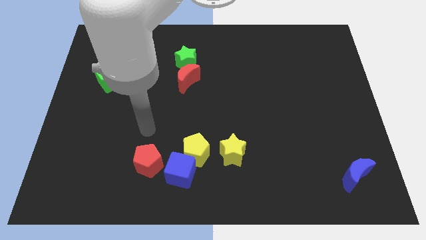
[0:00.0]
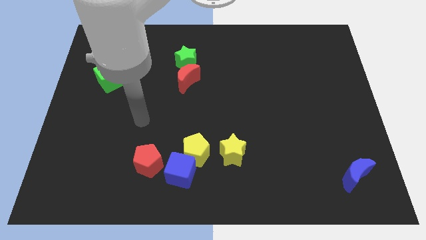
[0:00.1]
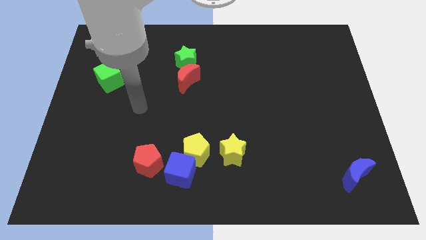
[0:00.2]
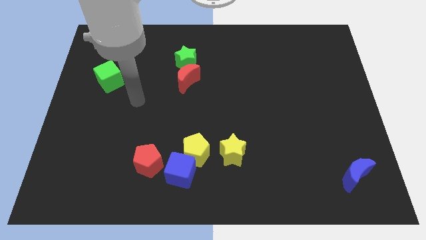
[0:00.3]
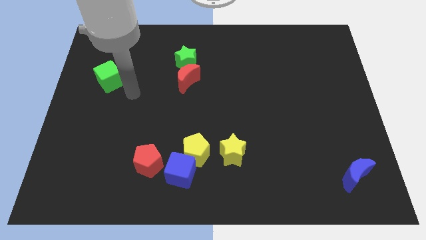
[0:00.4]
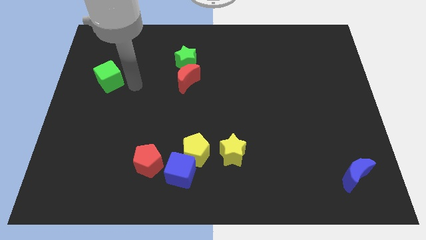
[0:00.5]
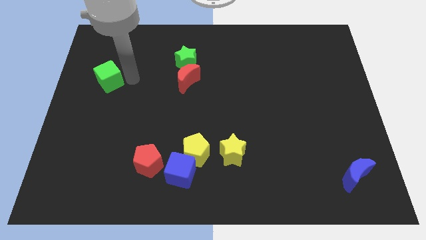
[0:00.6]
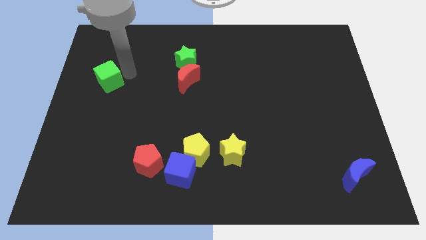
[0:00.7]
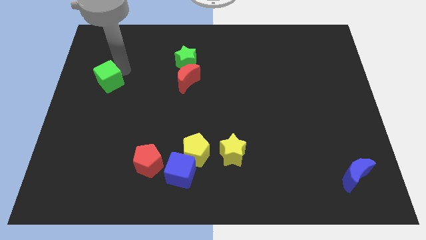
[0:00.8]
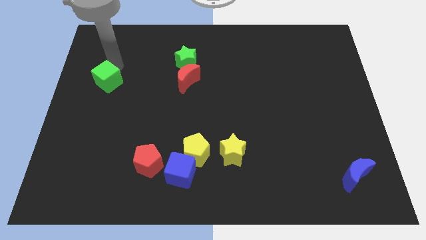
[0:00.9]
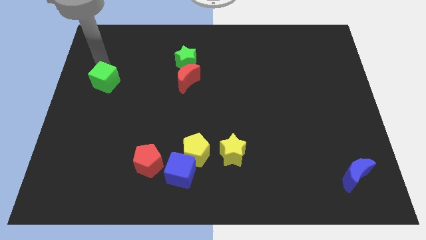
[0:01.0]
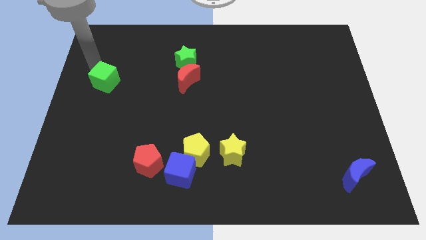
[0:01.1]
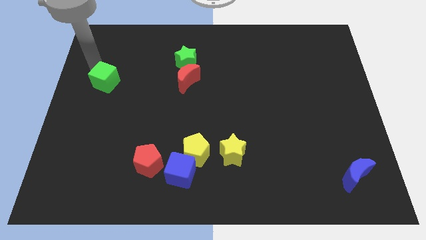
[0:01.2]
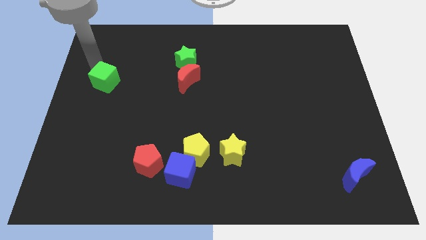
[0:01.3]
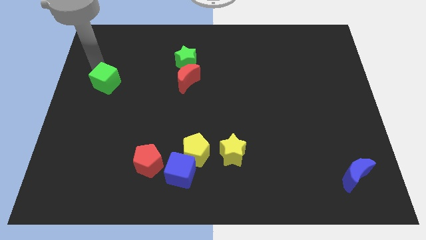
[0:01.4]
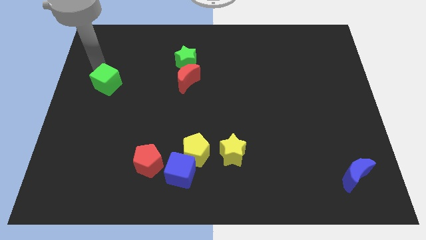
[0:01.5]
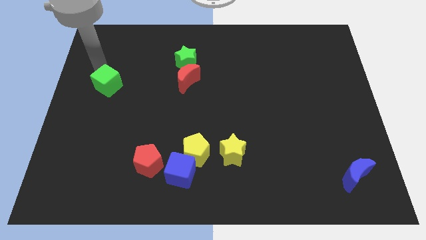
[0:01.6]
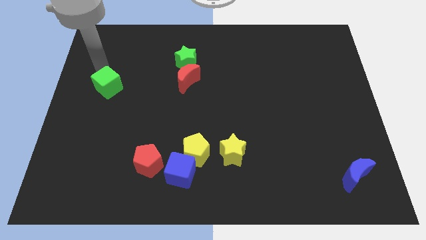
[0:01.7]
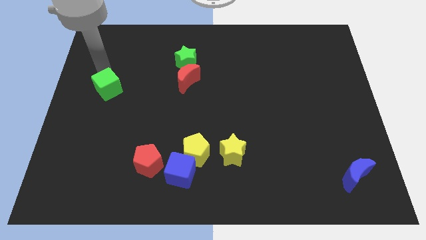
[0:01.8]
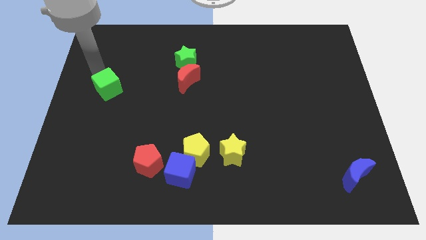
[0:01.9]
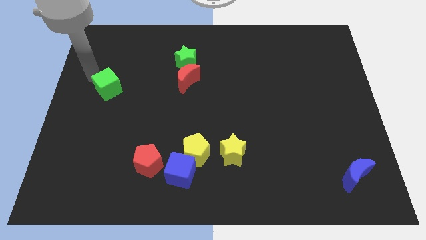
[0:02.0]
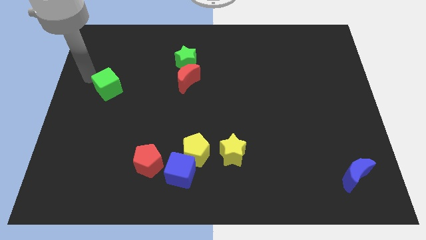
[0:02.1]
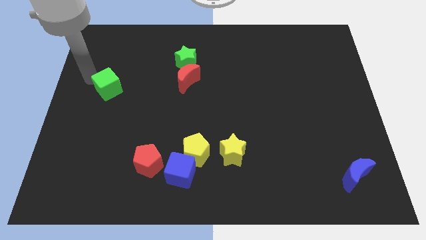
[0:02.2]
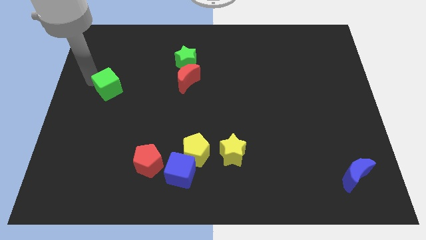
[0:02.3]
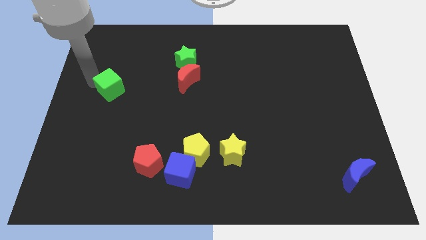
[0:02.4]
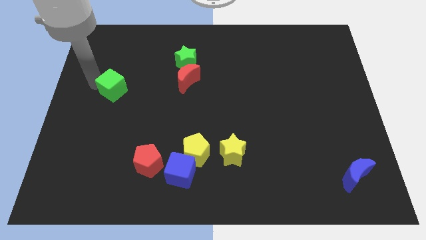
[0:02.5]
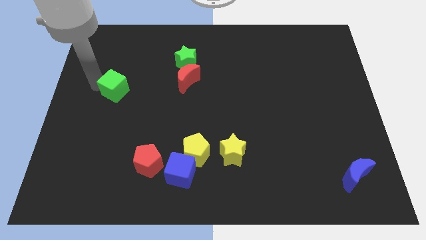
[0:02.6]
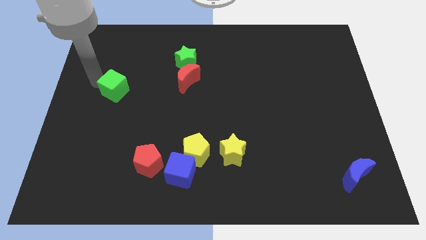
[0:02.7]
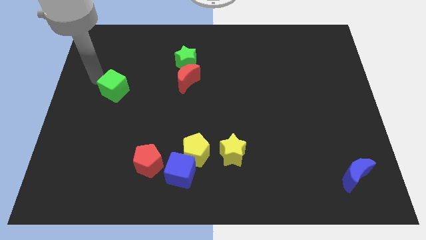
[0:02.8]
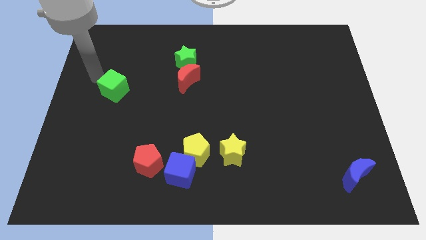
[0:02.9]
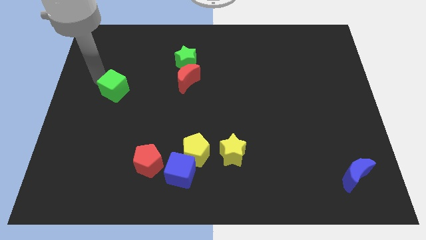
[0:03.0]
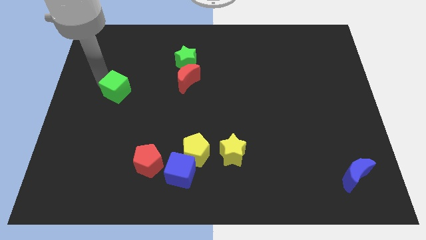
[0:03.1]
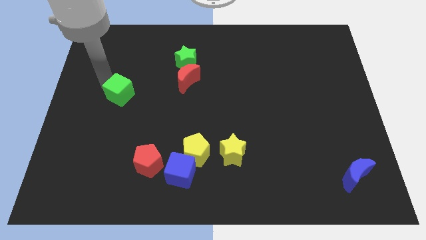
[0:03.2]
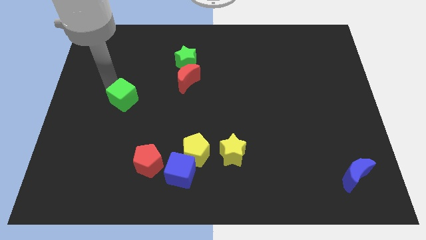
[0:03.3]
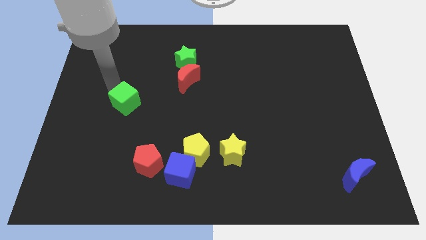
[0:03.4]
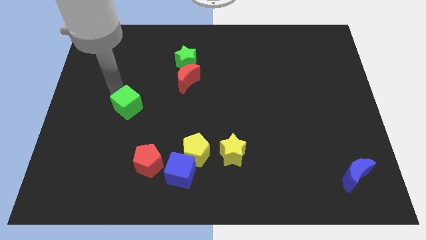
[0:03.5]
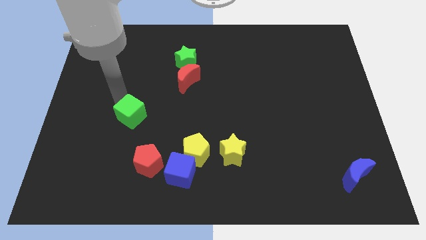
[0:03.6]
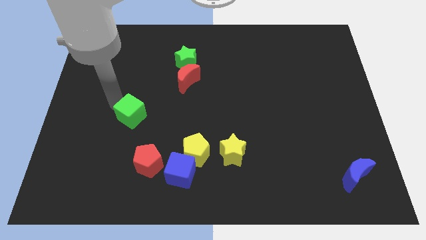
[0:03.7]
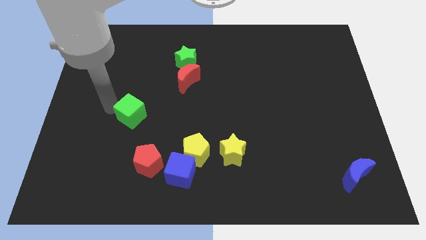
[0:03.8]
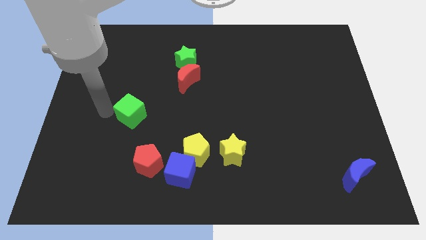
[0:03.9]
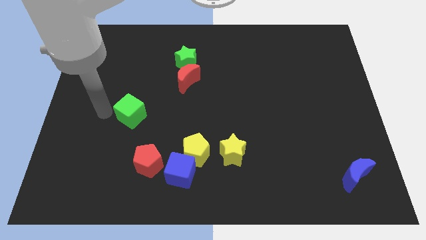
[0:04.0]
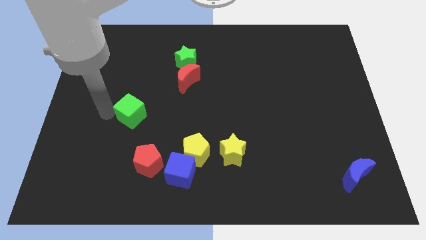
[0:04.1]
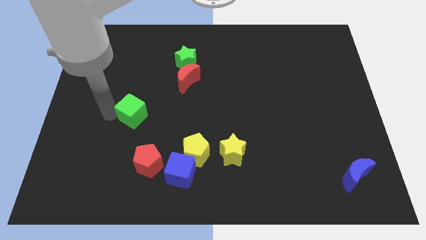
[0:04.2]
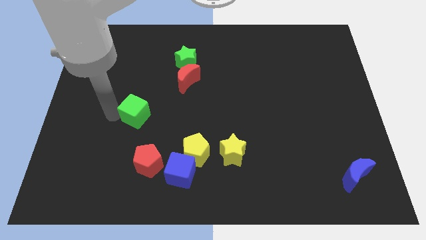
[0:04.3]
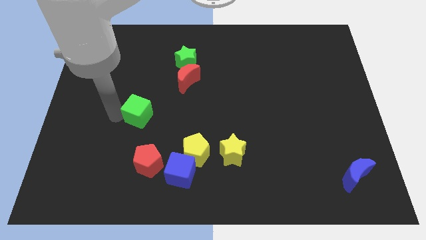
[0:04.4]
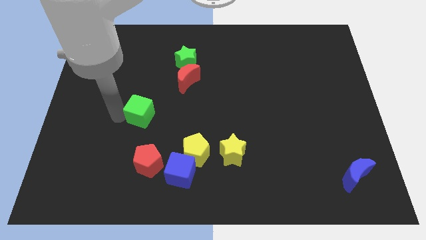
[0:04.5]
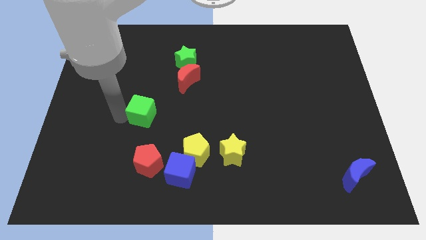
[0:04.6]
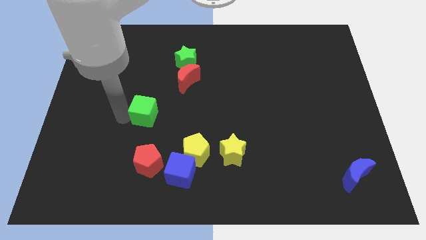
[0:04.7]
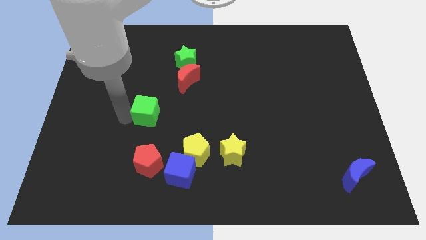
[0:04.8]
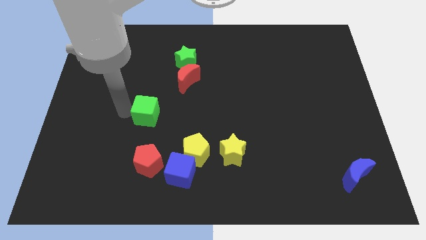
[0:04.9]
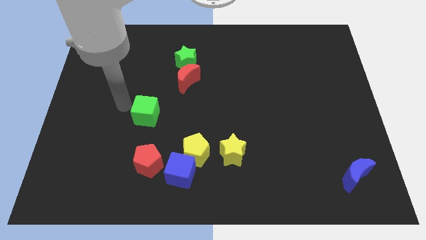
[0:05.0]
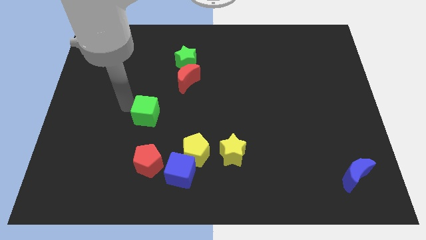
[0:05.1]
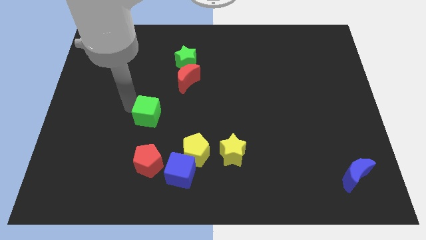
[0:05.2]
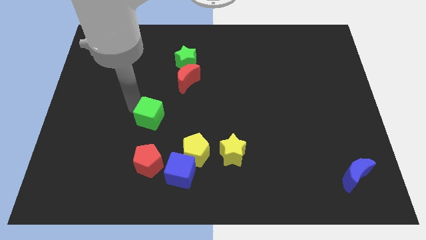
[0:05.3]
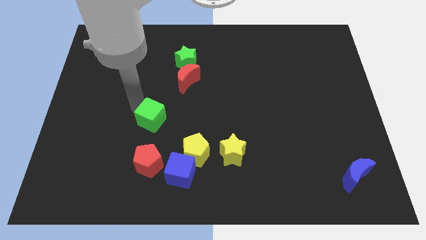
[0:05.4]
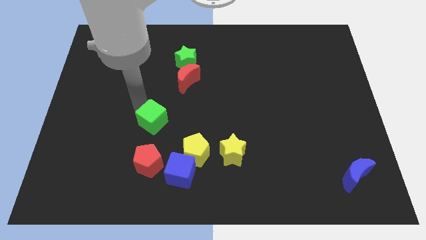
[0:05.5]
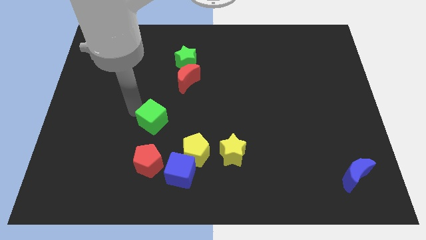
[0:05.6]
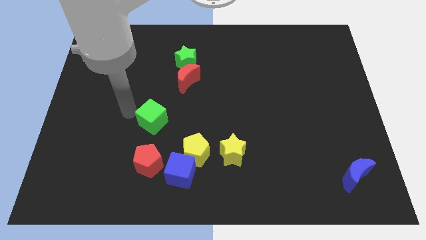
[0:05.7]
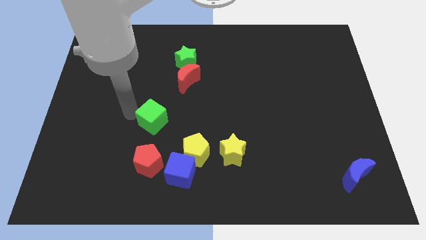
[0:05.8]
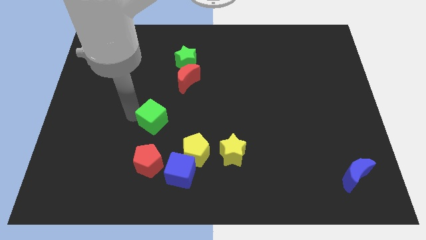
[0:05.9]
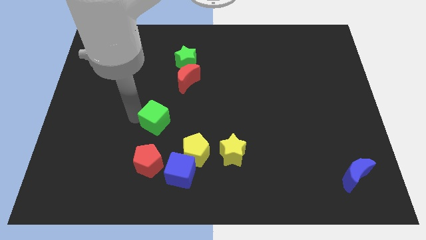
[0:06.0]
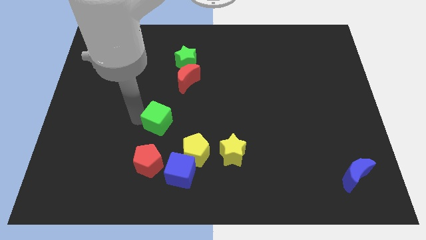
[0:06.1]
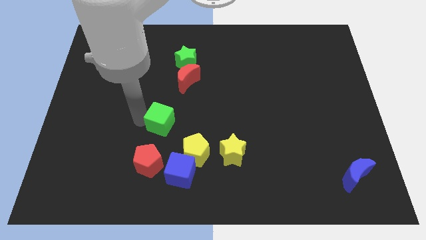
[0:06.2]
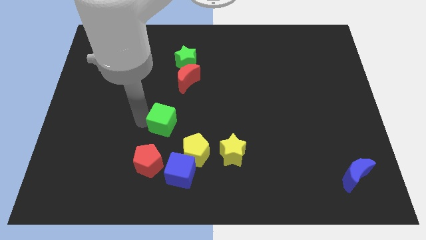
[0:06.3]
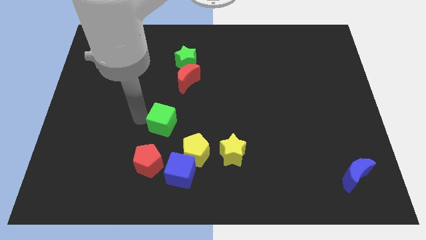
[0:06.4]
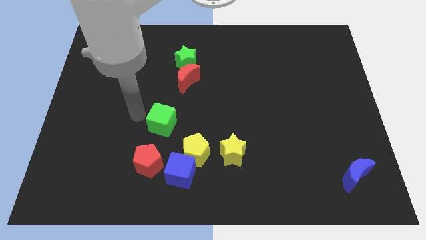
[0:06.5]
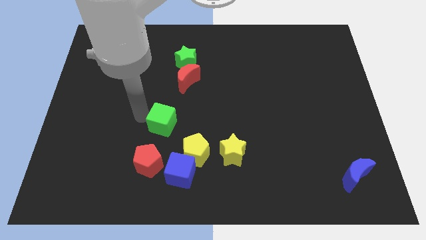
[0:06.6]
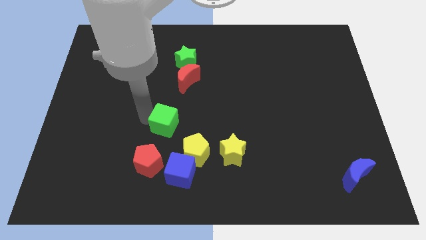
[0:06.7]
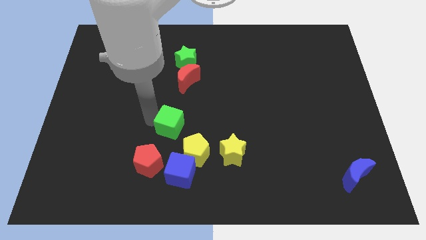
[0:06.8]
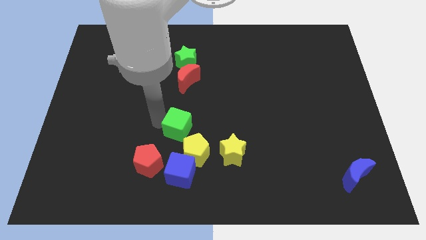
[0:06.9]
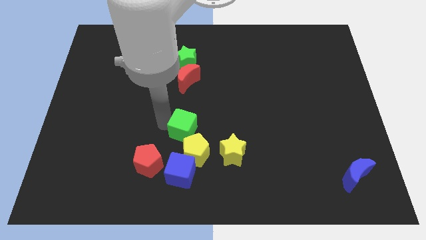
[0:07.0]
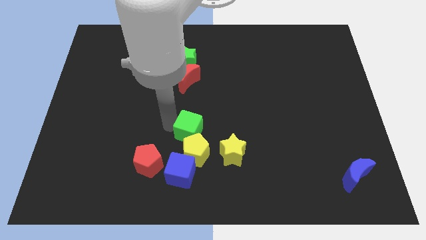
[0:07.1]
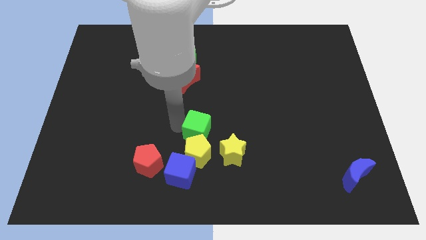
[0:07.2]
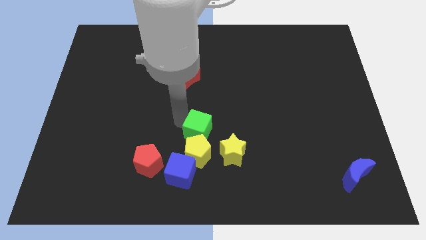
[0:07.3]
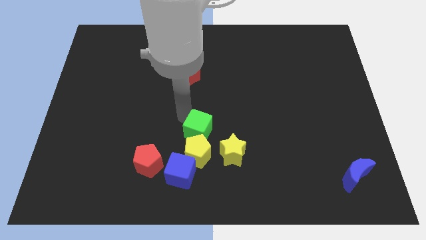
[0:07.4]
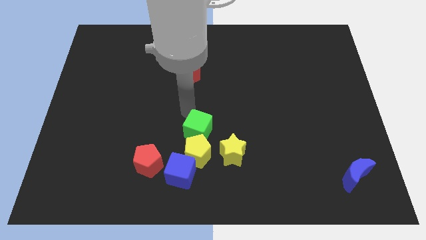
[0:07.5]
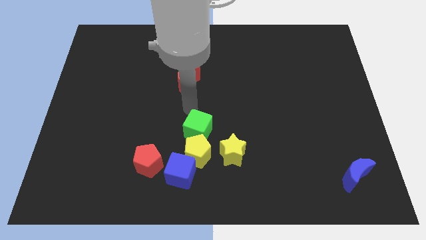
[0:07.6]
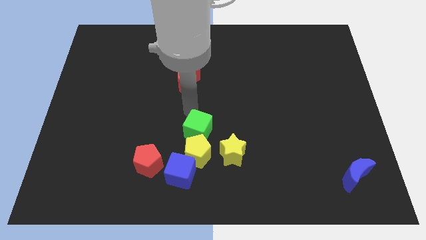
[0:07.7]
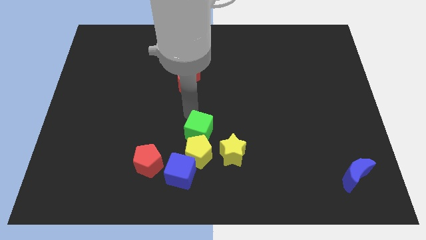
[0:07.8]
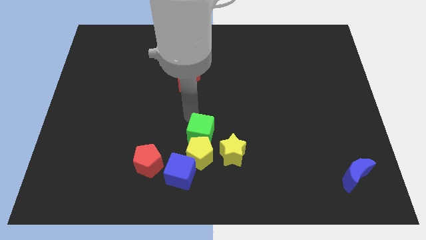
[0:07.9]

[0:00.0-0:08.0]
put the green cube diagonally up and to the right of the blue cube

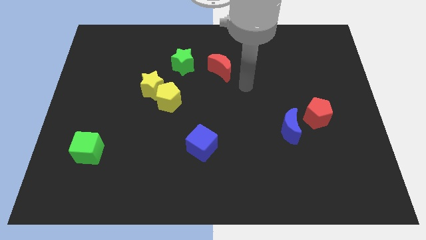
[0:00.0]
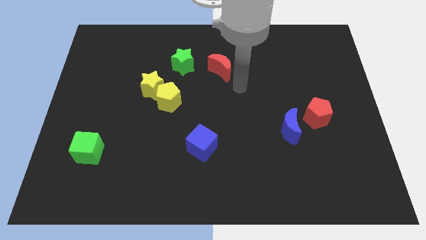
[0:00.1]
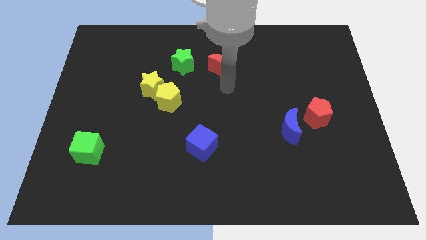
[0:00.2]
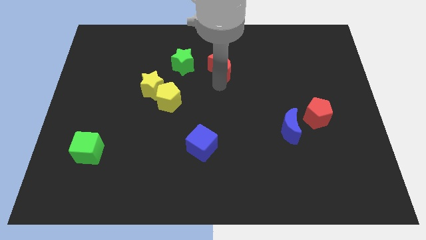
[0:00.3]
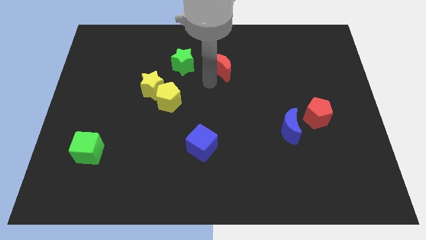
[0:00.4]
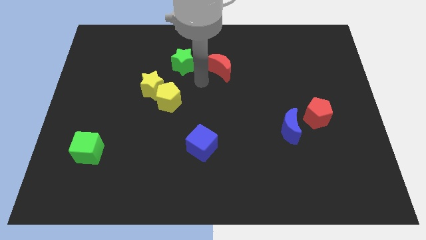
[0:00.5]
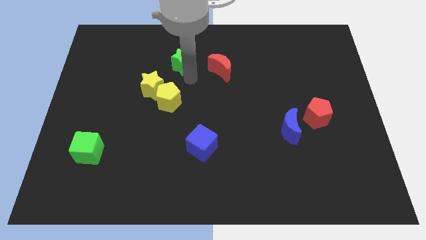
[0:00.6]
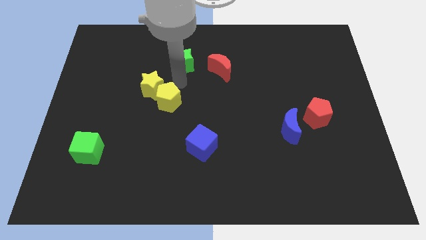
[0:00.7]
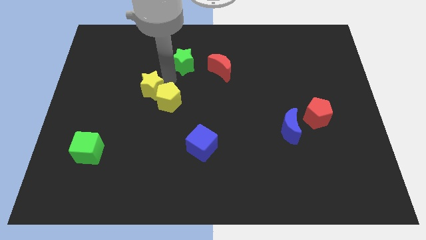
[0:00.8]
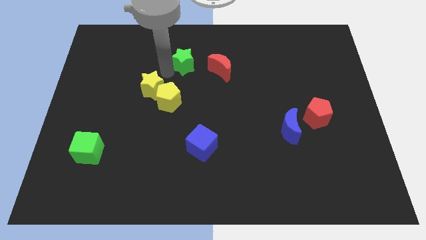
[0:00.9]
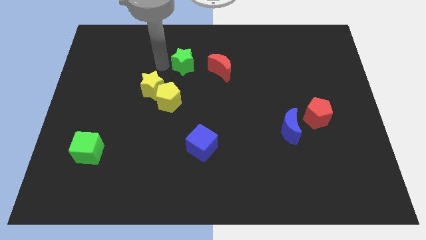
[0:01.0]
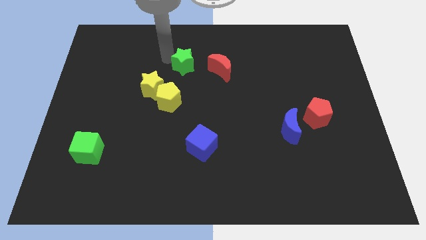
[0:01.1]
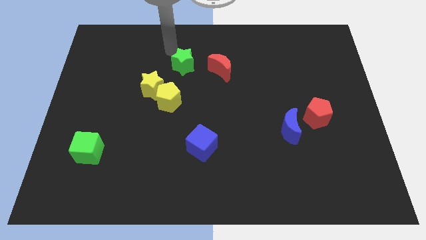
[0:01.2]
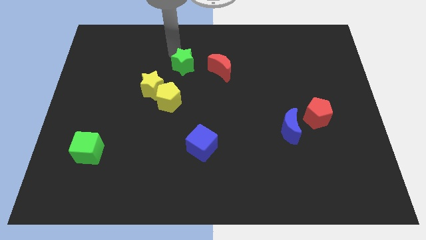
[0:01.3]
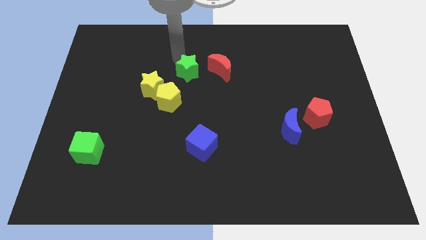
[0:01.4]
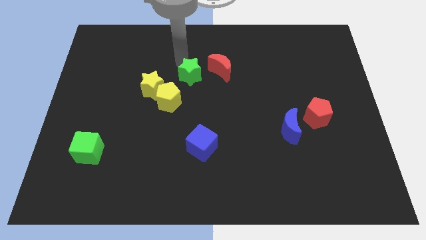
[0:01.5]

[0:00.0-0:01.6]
slide the green star to the bottom left of the red moon
